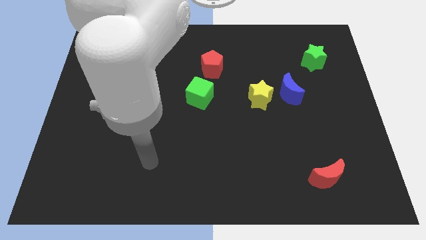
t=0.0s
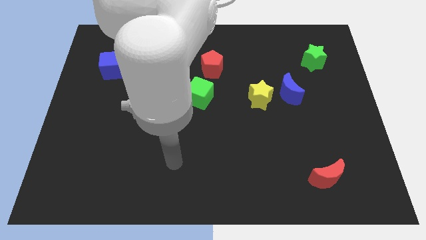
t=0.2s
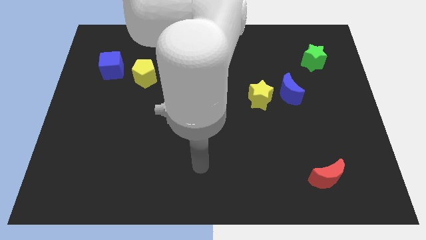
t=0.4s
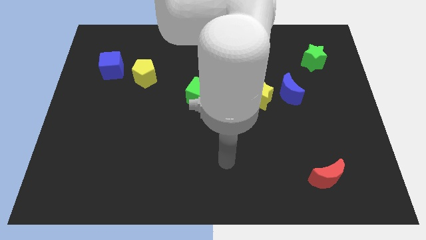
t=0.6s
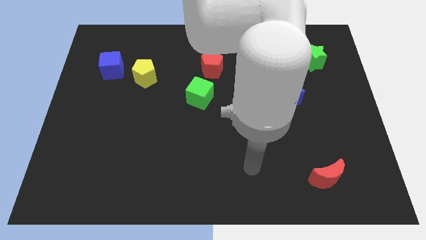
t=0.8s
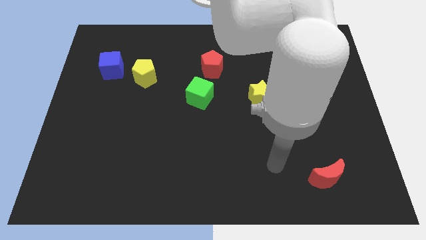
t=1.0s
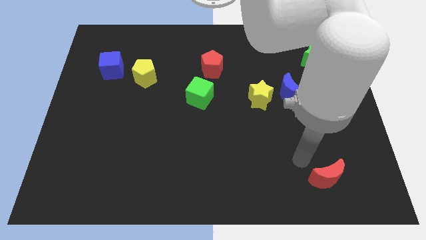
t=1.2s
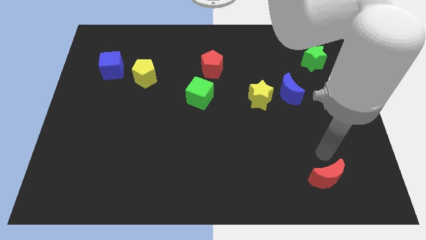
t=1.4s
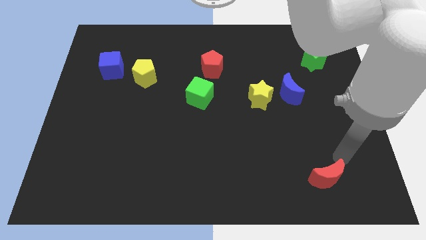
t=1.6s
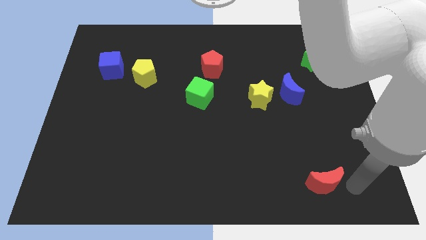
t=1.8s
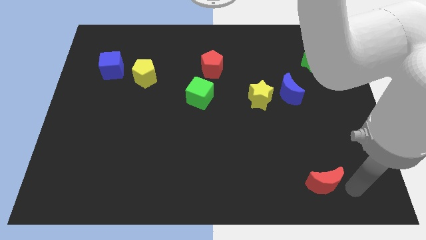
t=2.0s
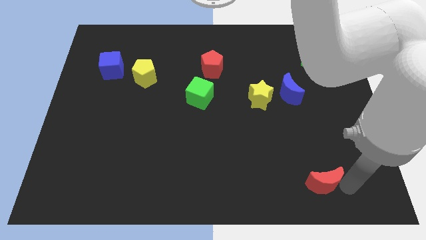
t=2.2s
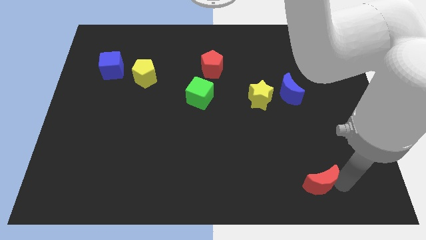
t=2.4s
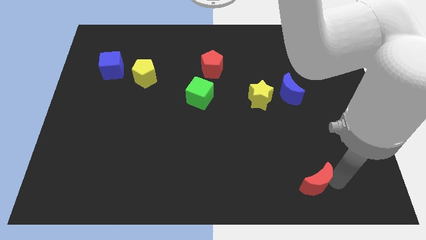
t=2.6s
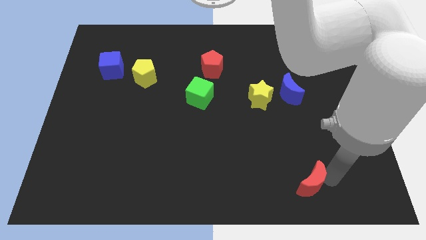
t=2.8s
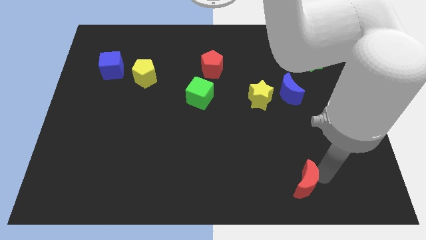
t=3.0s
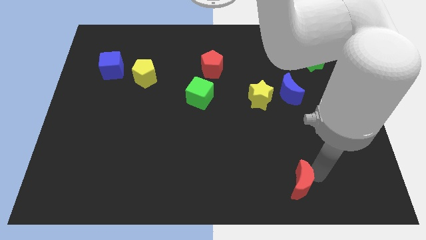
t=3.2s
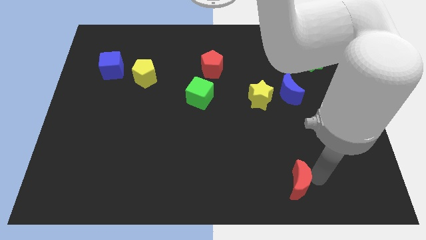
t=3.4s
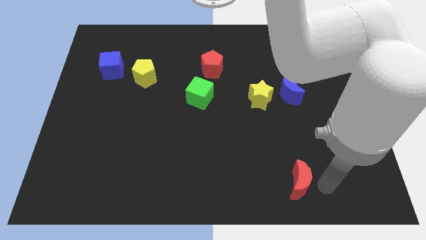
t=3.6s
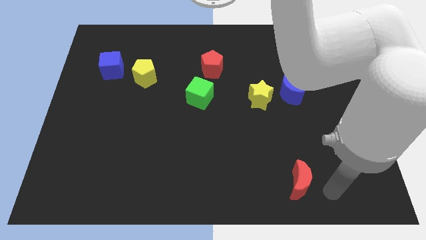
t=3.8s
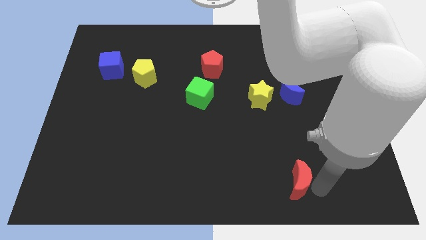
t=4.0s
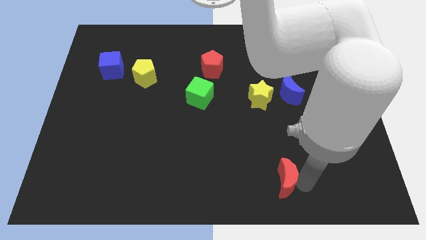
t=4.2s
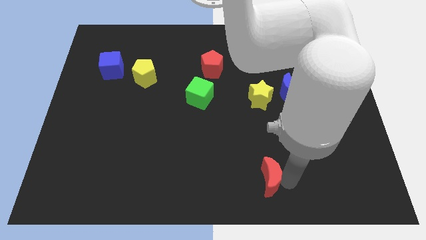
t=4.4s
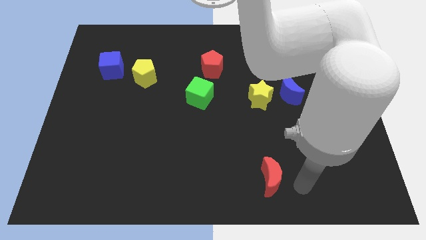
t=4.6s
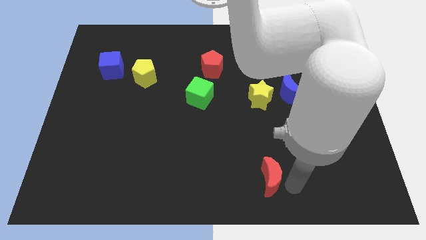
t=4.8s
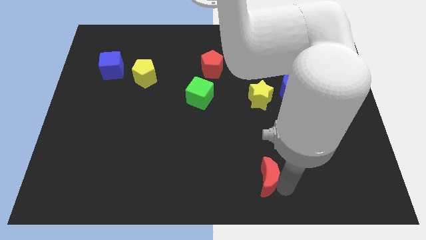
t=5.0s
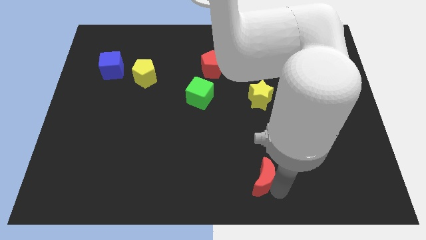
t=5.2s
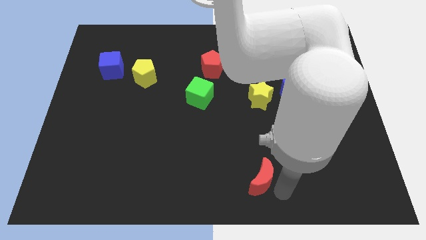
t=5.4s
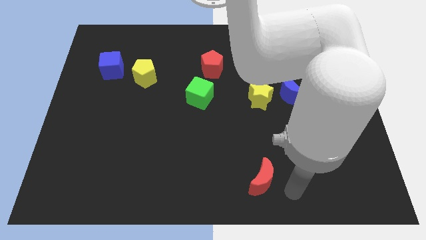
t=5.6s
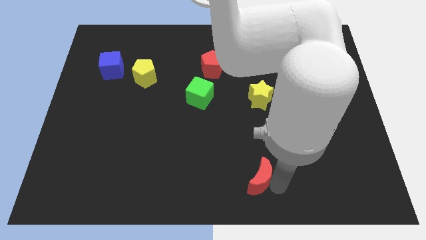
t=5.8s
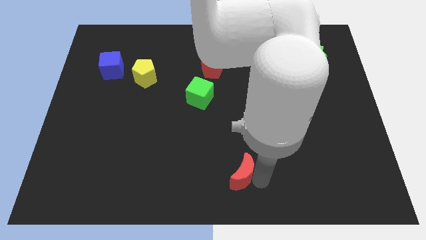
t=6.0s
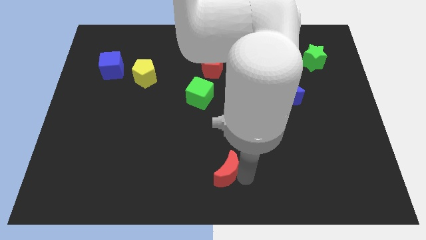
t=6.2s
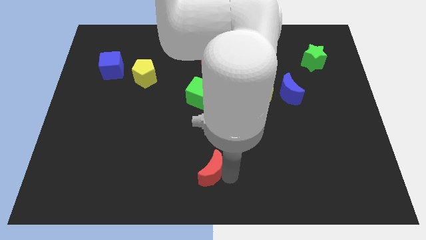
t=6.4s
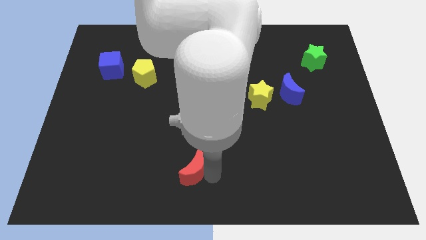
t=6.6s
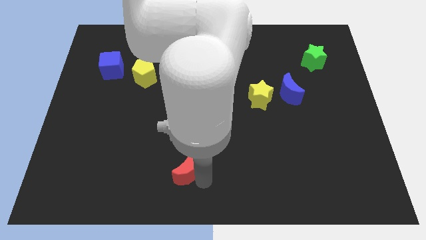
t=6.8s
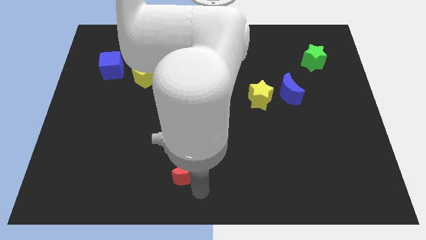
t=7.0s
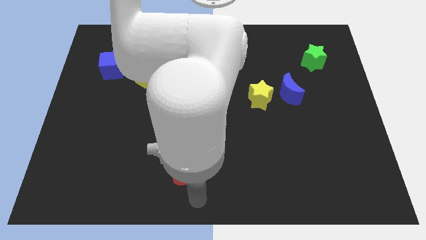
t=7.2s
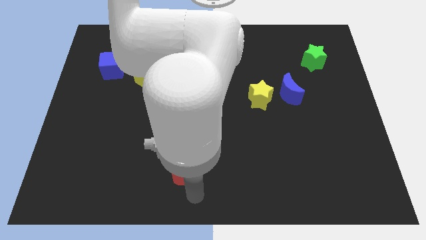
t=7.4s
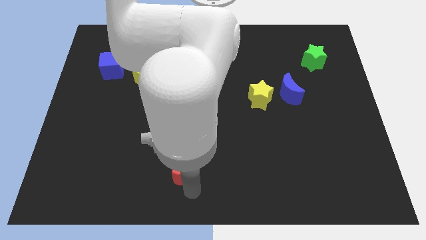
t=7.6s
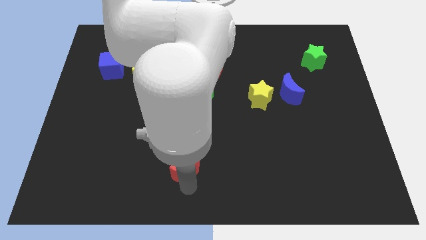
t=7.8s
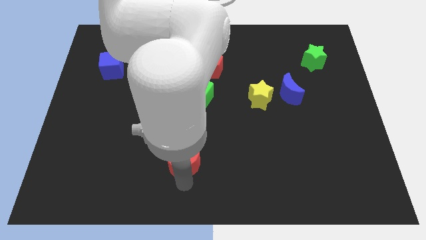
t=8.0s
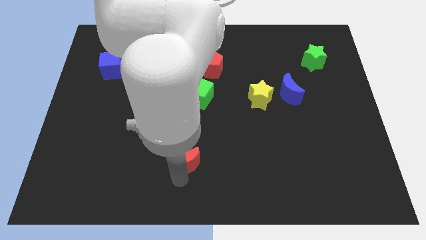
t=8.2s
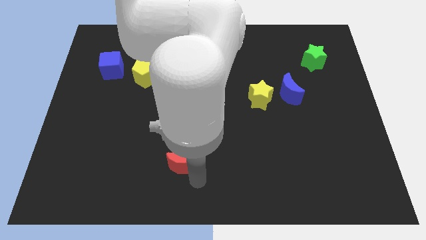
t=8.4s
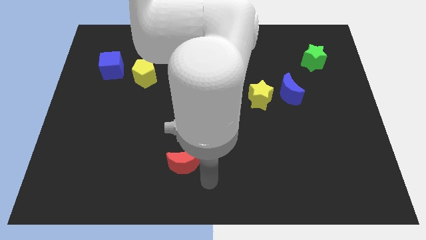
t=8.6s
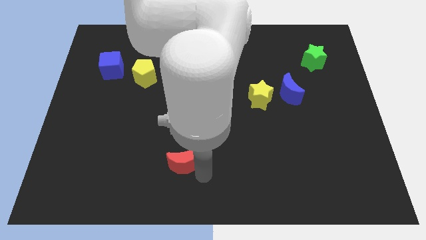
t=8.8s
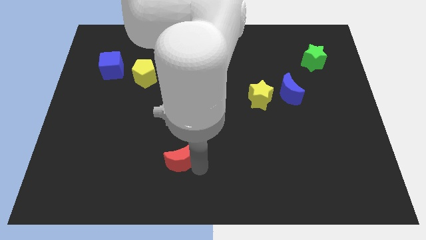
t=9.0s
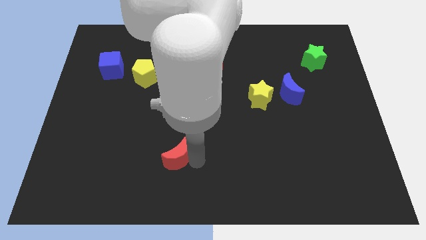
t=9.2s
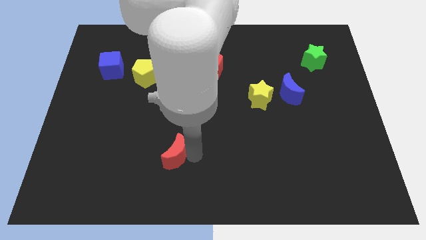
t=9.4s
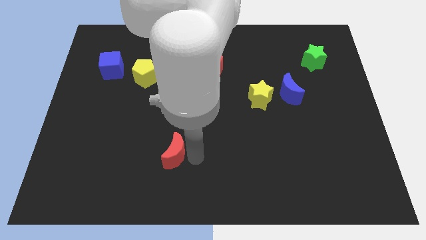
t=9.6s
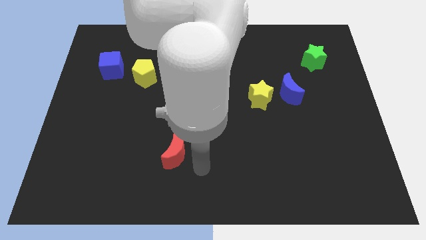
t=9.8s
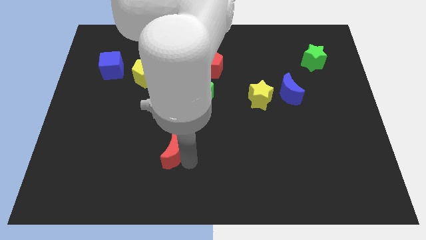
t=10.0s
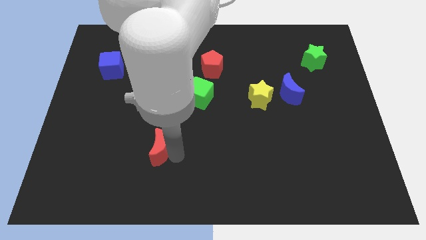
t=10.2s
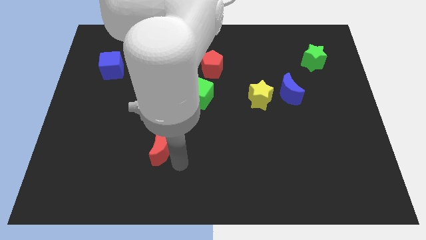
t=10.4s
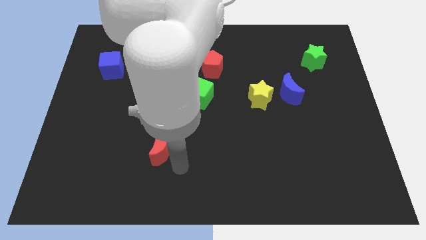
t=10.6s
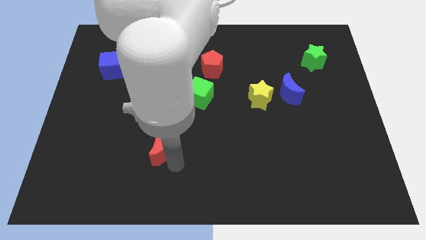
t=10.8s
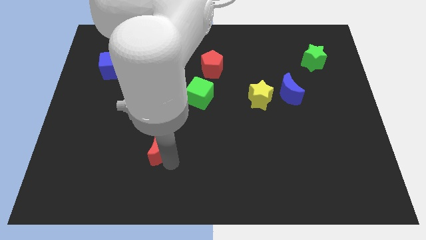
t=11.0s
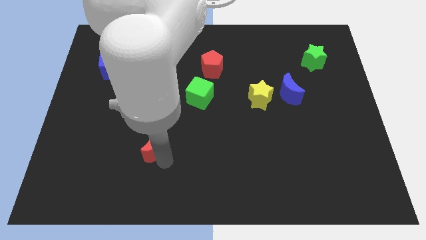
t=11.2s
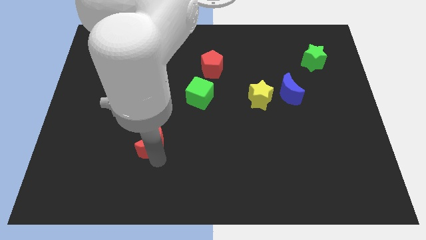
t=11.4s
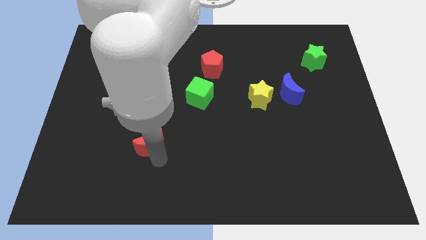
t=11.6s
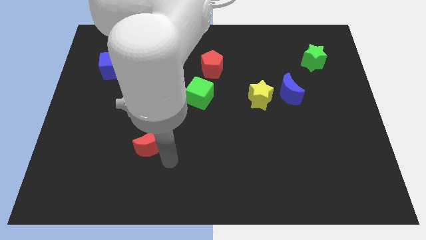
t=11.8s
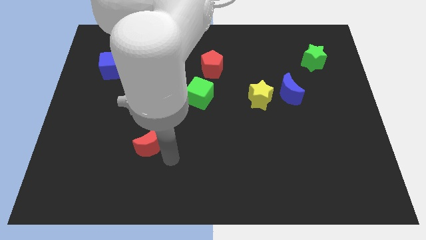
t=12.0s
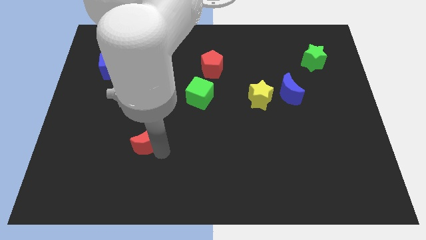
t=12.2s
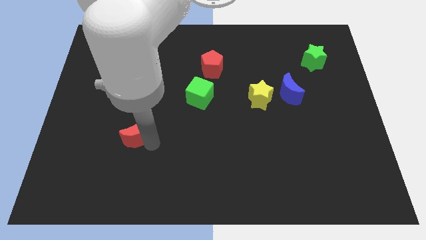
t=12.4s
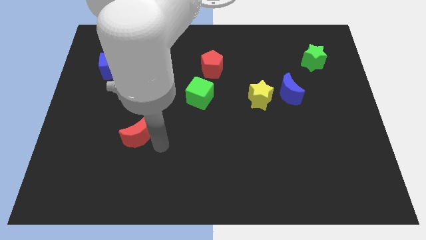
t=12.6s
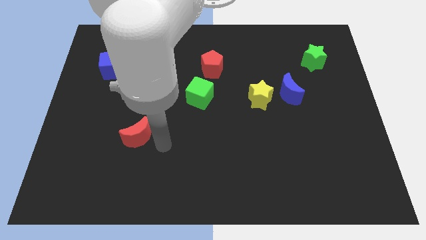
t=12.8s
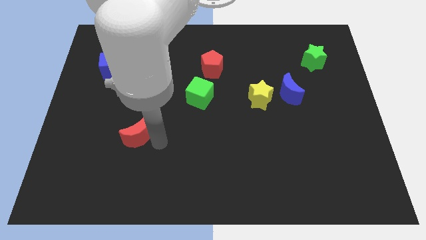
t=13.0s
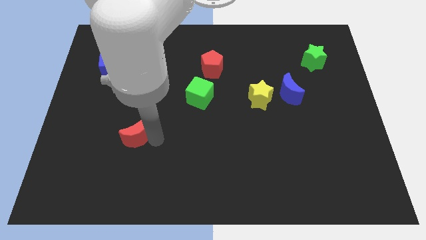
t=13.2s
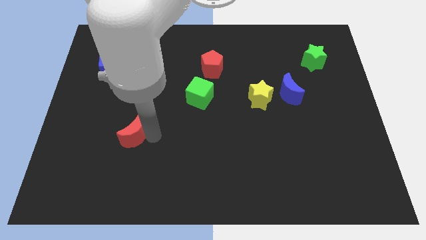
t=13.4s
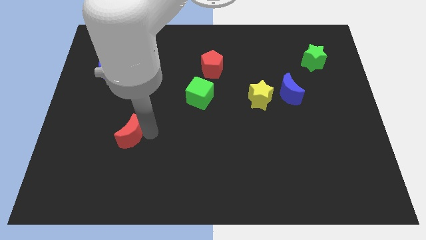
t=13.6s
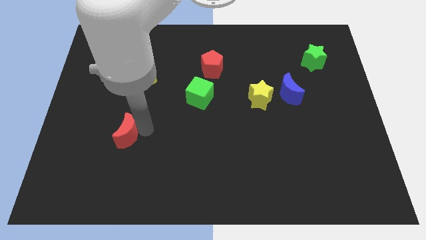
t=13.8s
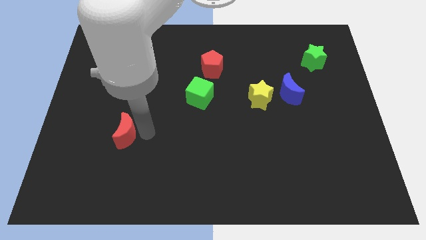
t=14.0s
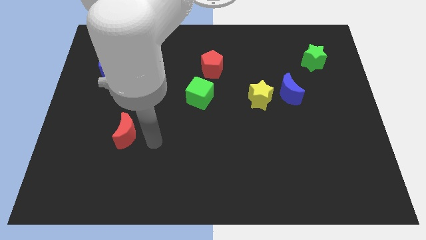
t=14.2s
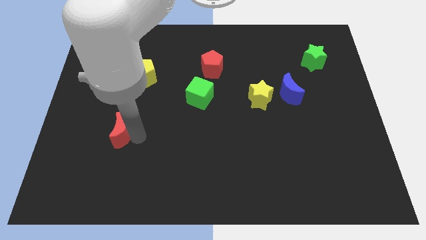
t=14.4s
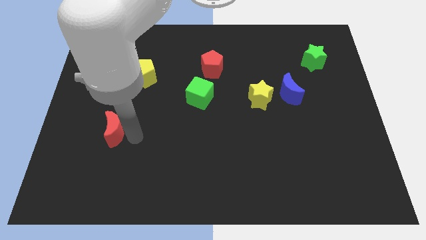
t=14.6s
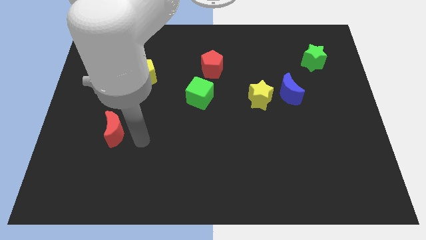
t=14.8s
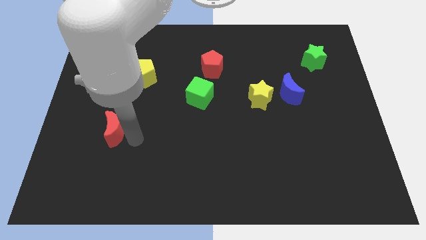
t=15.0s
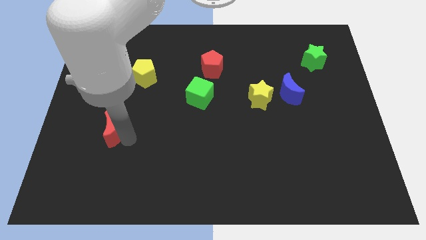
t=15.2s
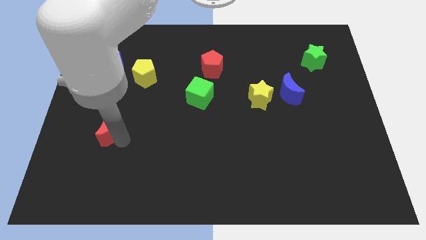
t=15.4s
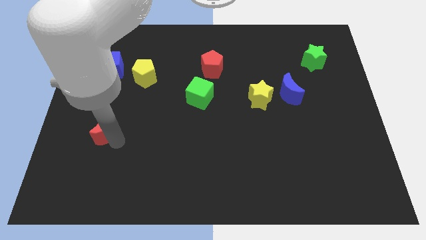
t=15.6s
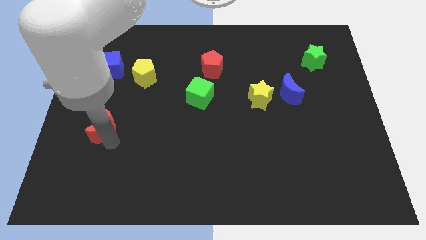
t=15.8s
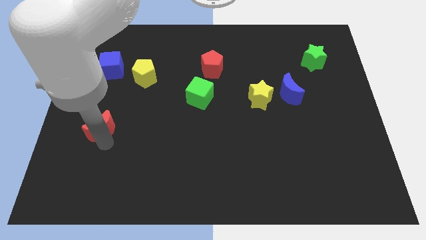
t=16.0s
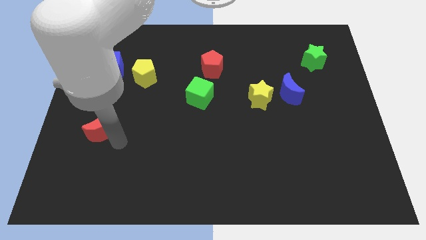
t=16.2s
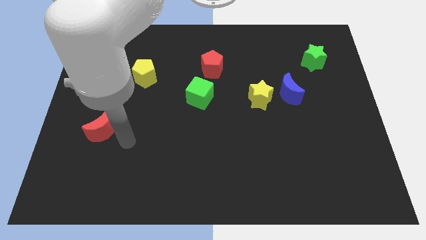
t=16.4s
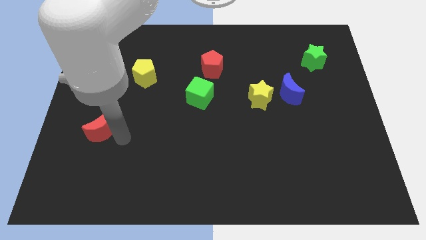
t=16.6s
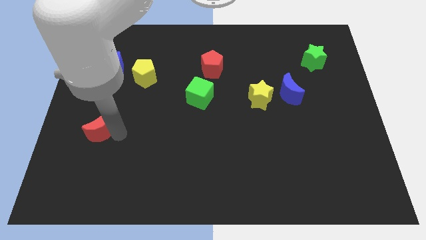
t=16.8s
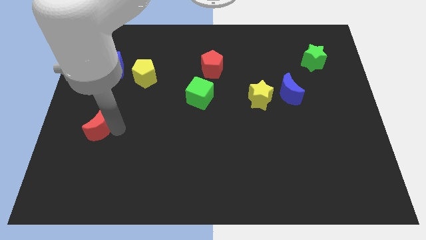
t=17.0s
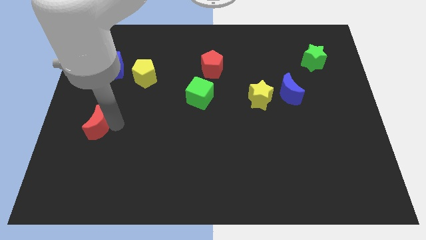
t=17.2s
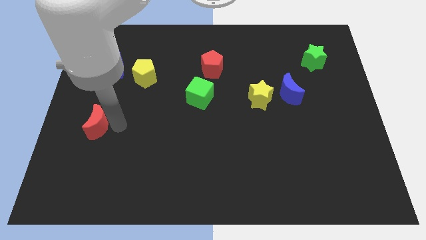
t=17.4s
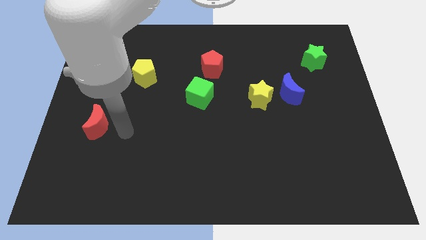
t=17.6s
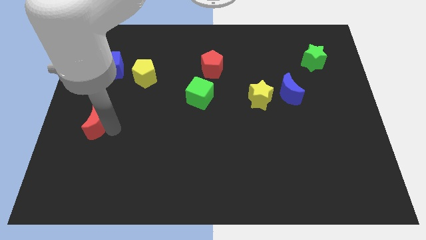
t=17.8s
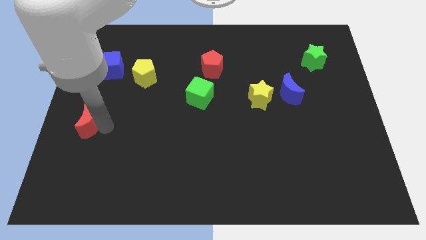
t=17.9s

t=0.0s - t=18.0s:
move the red moon to the left side of the board
